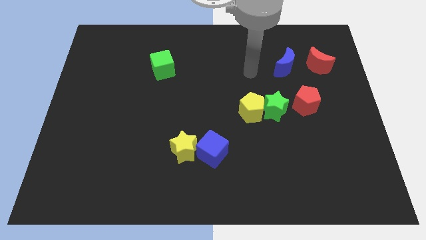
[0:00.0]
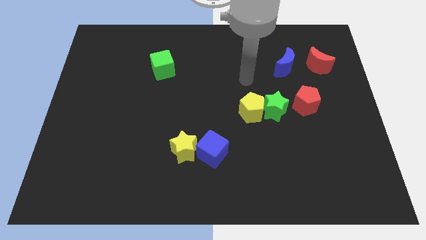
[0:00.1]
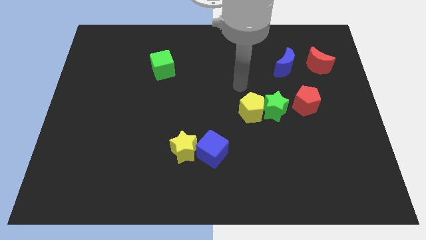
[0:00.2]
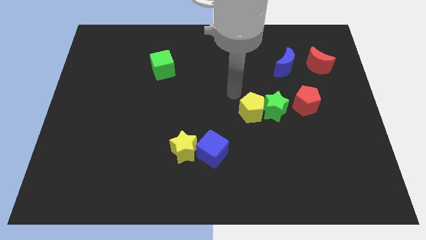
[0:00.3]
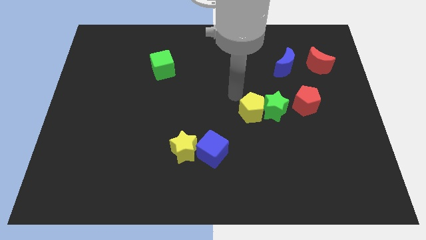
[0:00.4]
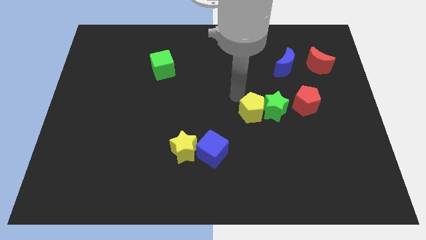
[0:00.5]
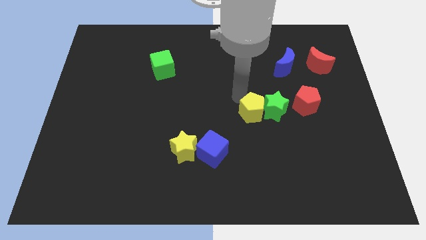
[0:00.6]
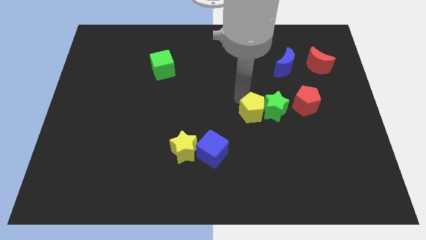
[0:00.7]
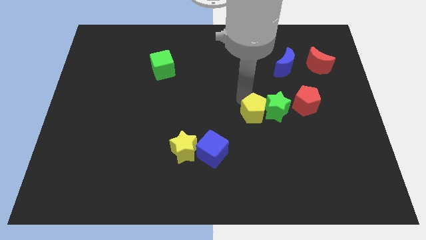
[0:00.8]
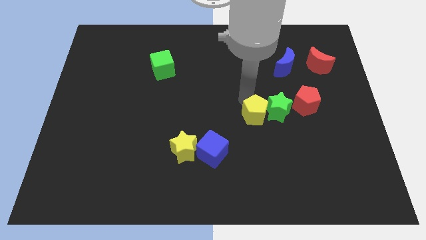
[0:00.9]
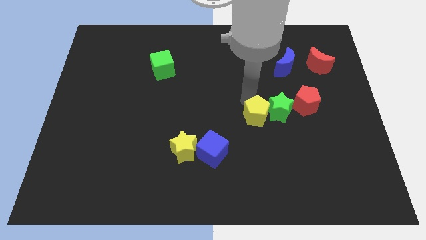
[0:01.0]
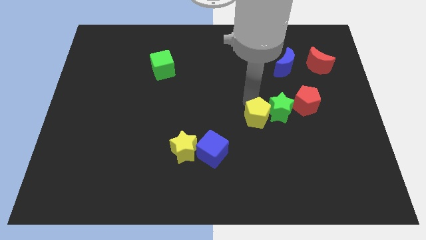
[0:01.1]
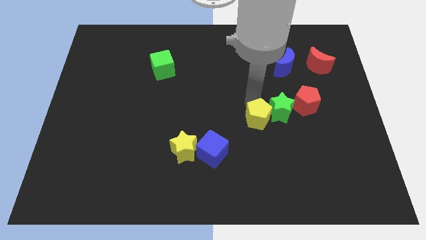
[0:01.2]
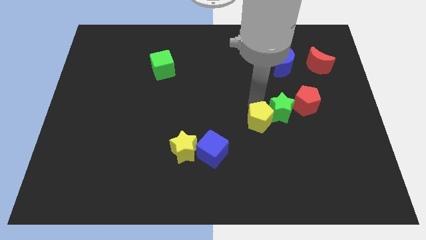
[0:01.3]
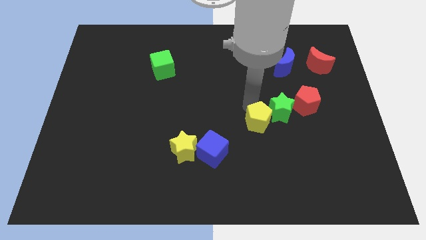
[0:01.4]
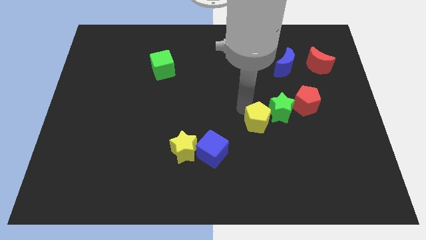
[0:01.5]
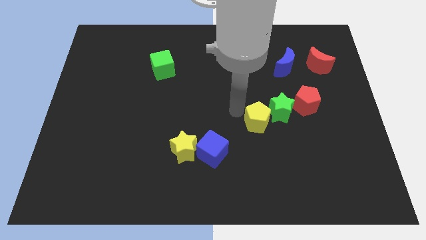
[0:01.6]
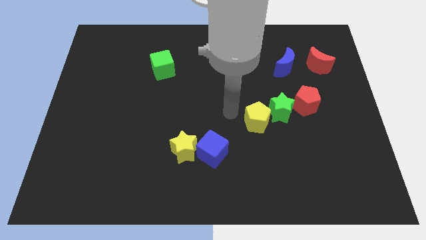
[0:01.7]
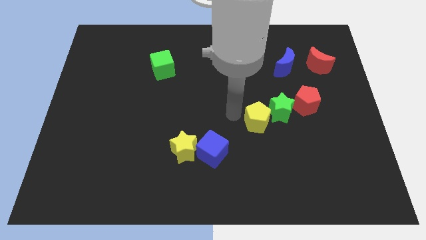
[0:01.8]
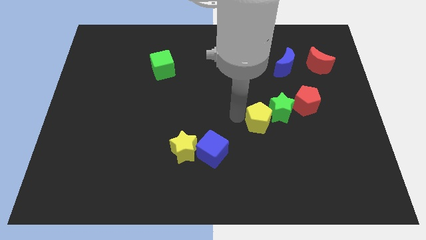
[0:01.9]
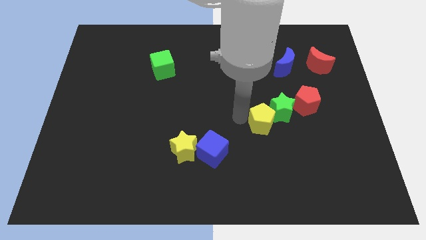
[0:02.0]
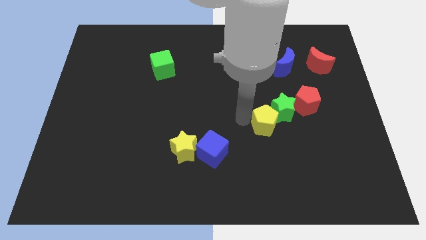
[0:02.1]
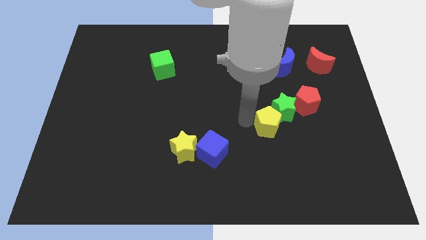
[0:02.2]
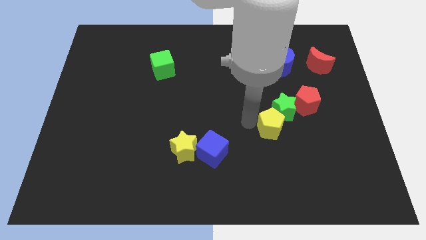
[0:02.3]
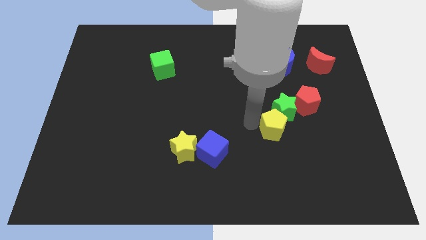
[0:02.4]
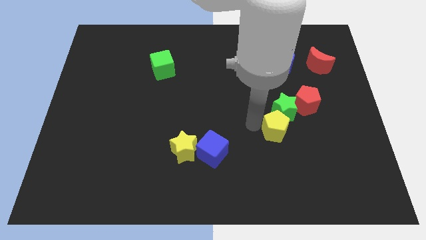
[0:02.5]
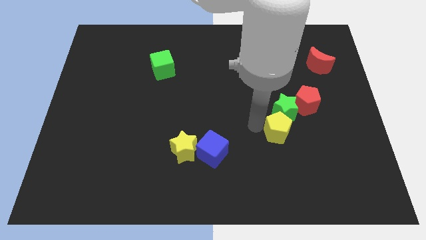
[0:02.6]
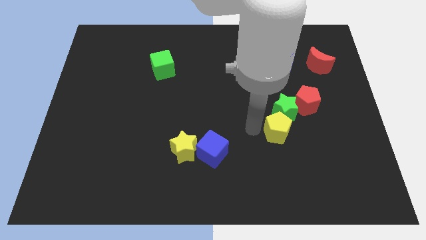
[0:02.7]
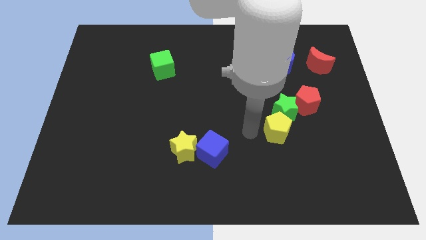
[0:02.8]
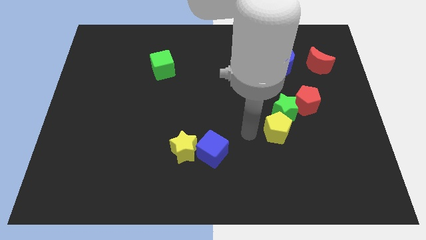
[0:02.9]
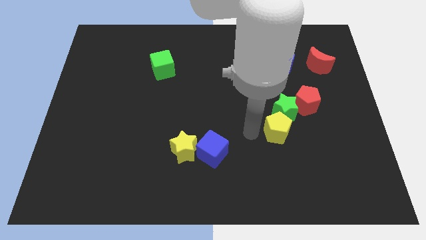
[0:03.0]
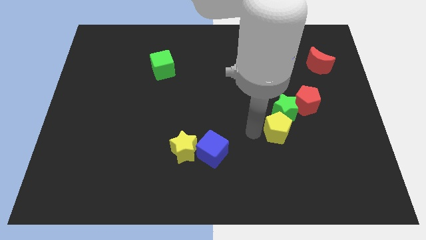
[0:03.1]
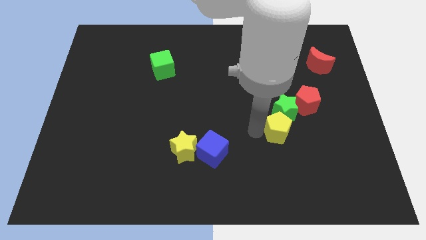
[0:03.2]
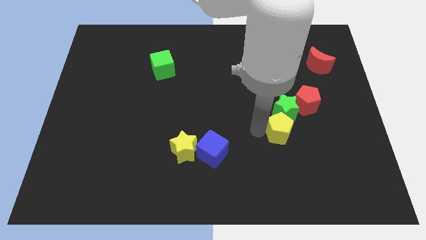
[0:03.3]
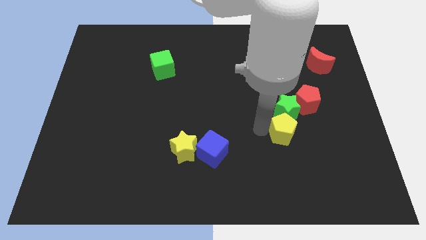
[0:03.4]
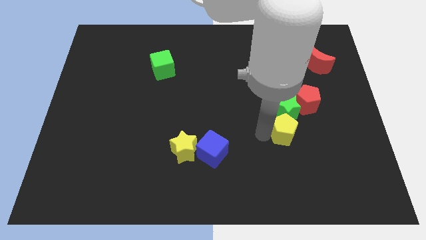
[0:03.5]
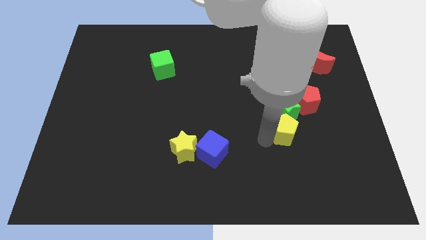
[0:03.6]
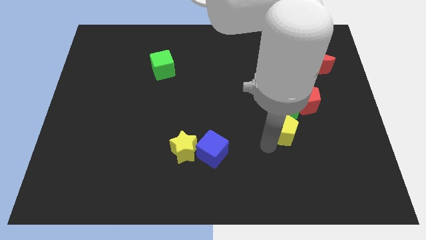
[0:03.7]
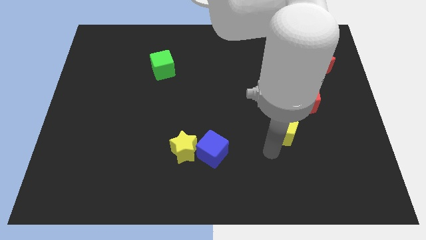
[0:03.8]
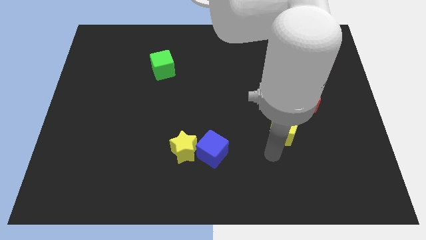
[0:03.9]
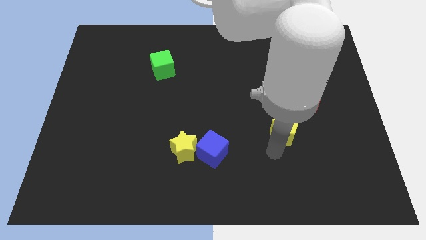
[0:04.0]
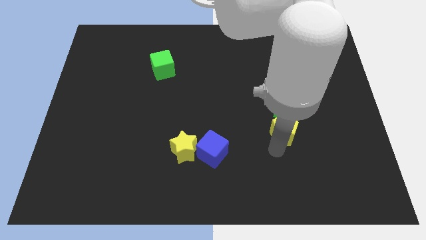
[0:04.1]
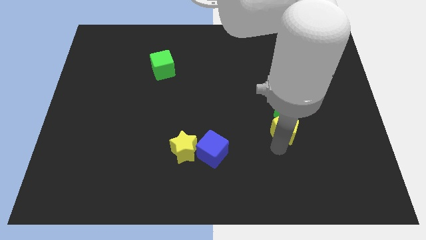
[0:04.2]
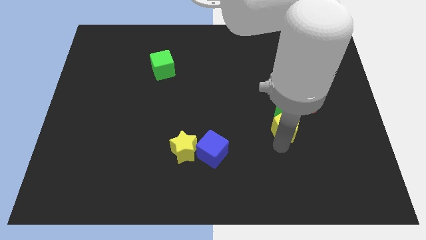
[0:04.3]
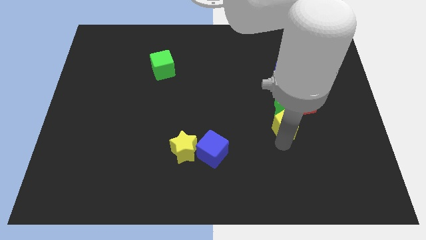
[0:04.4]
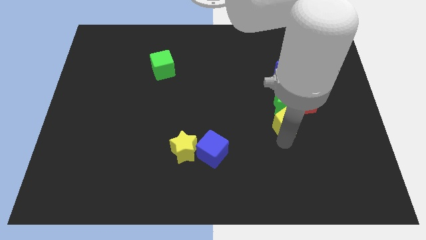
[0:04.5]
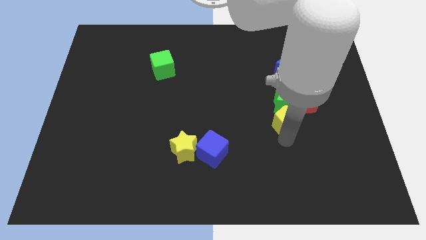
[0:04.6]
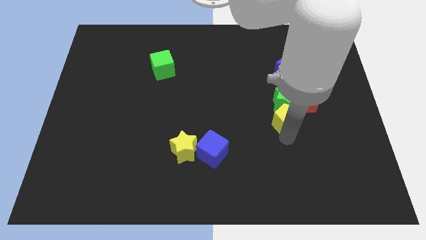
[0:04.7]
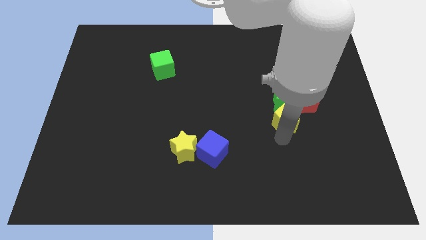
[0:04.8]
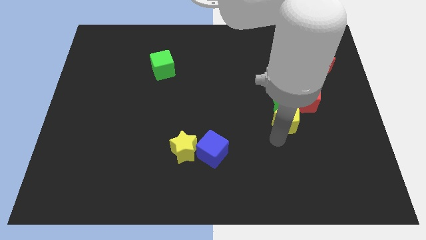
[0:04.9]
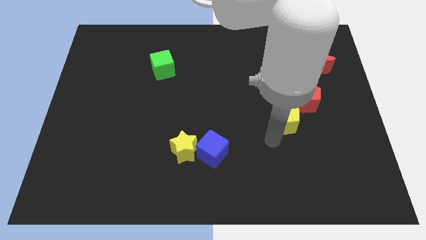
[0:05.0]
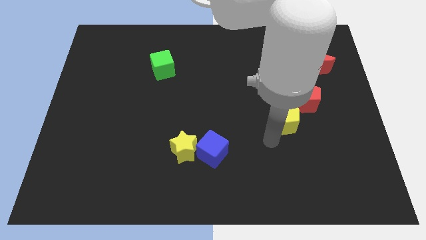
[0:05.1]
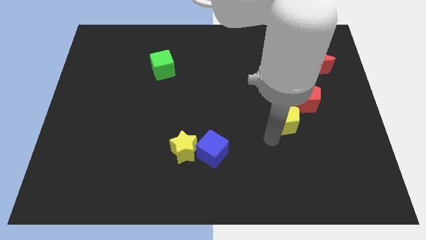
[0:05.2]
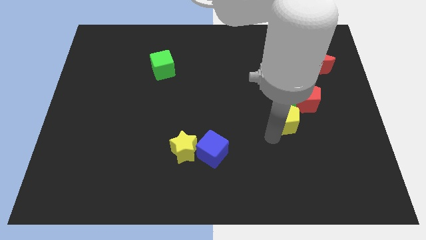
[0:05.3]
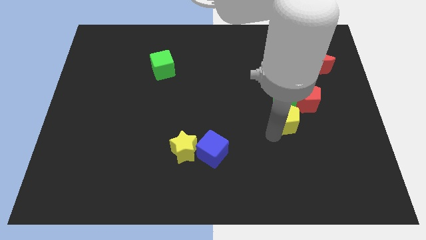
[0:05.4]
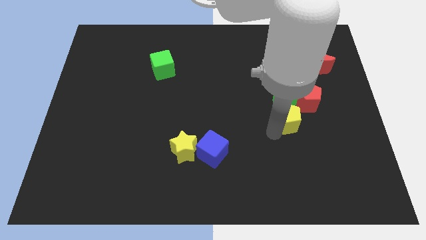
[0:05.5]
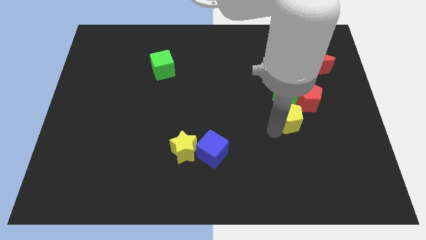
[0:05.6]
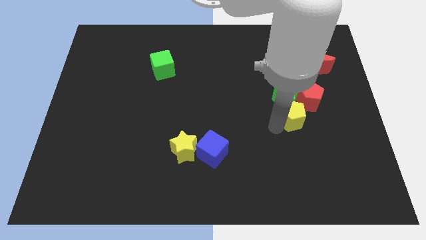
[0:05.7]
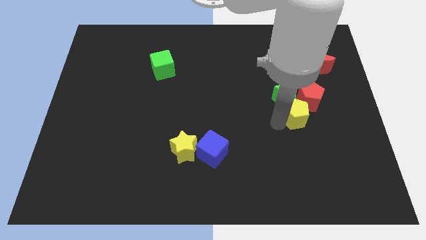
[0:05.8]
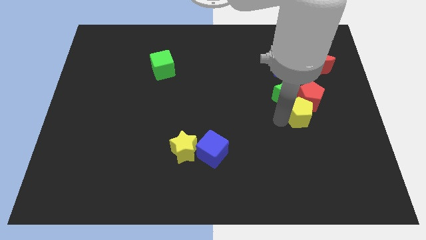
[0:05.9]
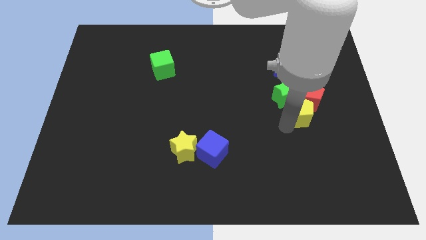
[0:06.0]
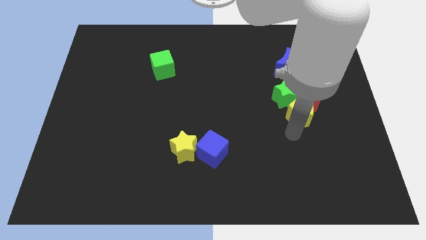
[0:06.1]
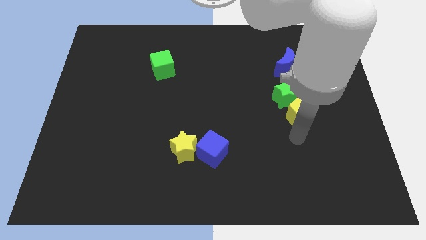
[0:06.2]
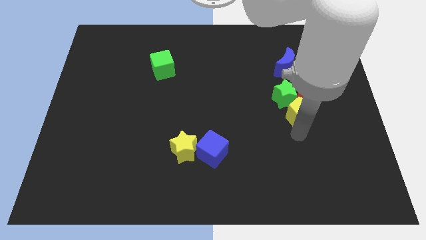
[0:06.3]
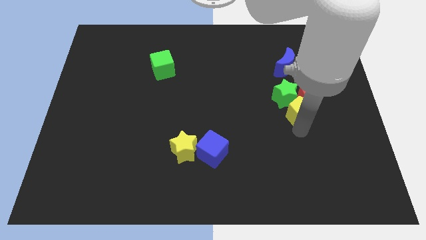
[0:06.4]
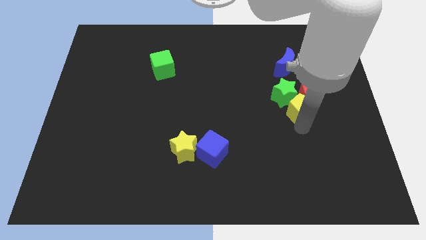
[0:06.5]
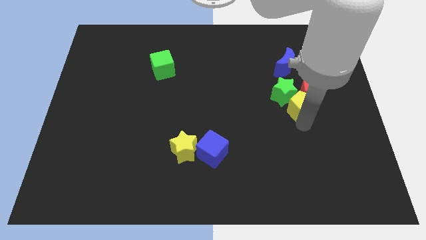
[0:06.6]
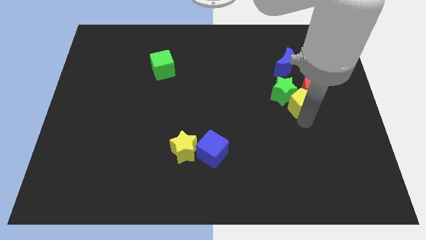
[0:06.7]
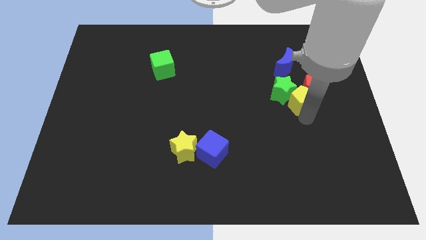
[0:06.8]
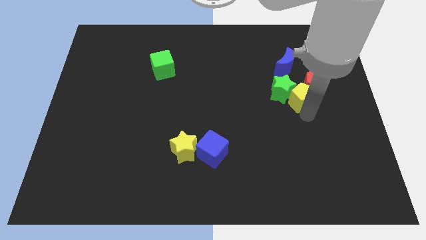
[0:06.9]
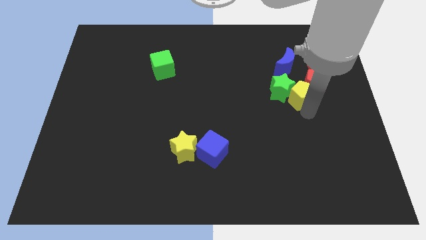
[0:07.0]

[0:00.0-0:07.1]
slide the yellow pentagon to the top right side of the green star
